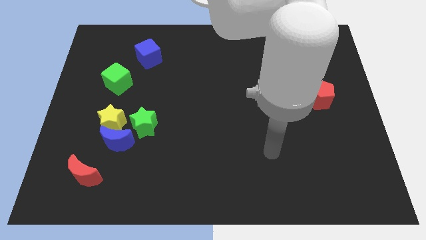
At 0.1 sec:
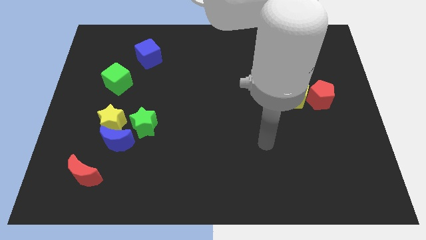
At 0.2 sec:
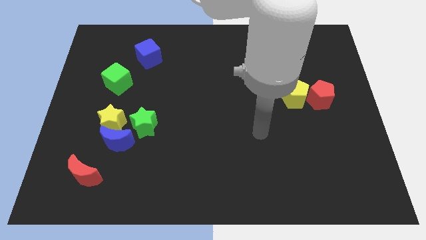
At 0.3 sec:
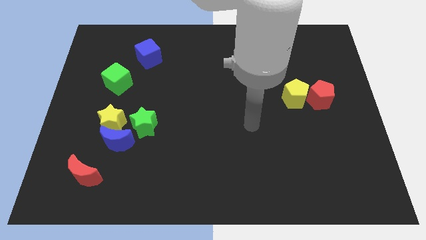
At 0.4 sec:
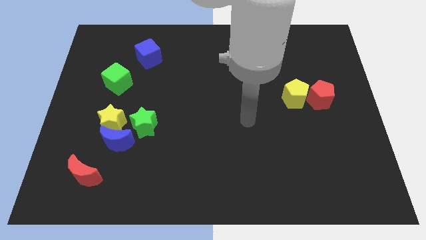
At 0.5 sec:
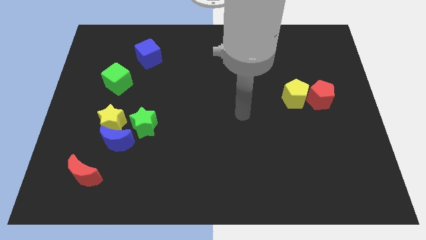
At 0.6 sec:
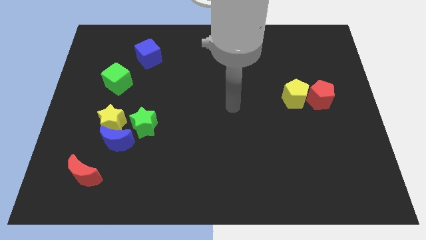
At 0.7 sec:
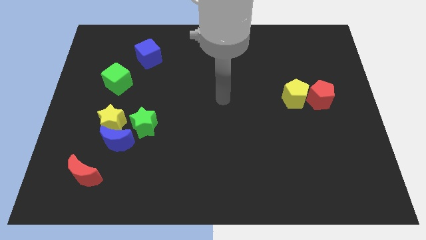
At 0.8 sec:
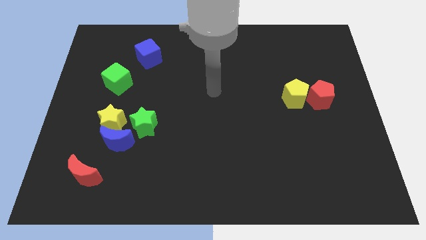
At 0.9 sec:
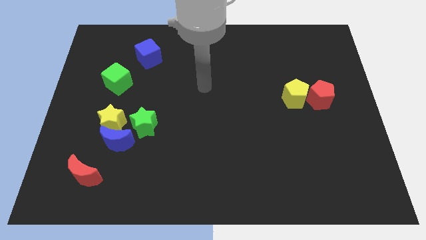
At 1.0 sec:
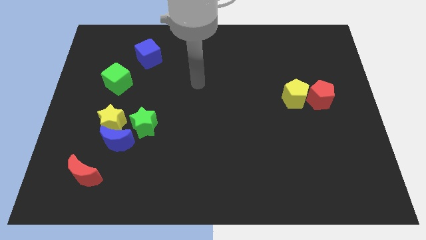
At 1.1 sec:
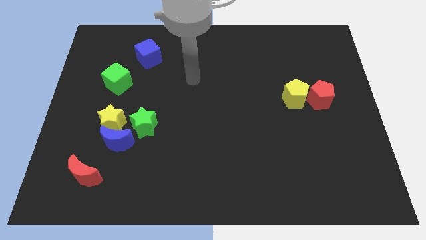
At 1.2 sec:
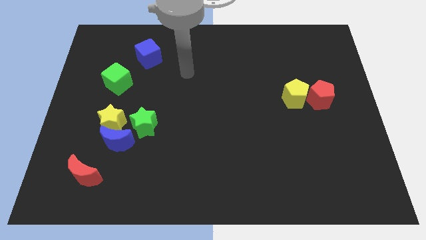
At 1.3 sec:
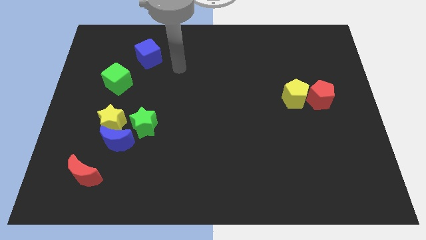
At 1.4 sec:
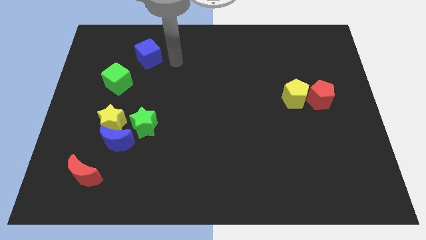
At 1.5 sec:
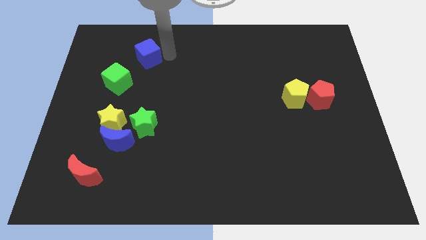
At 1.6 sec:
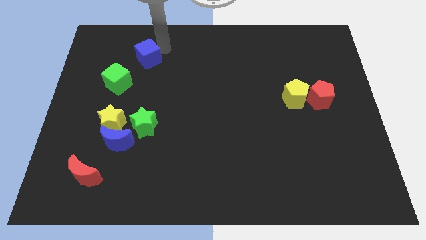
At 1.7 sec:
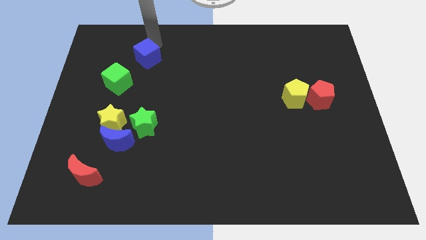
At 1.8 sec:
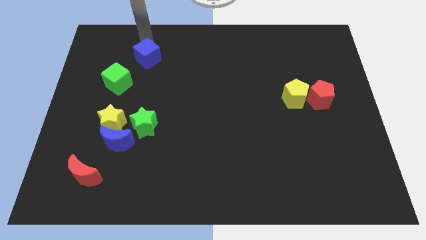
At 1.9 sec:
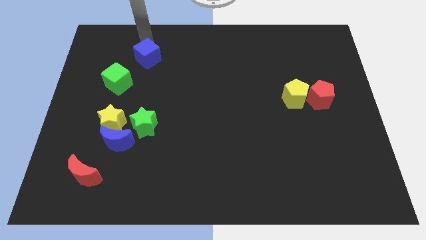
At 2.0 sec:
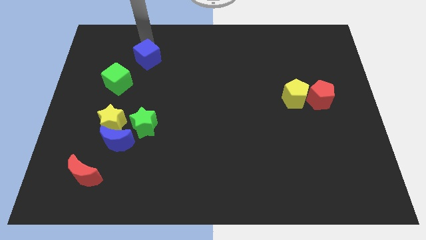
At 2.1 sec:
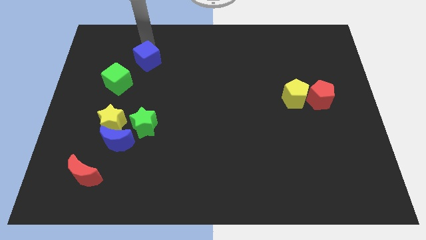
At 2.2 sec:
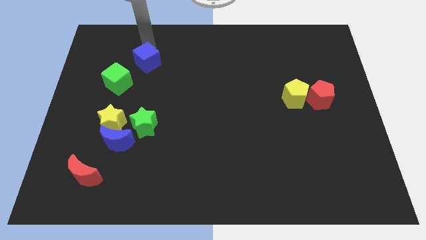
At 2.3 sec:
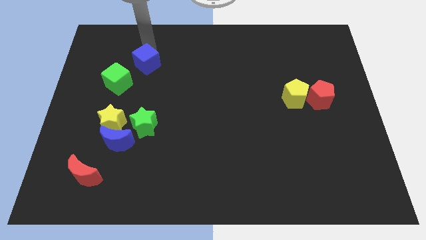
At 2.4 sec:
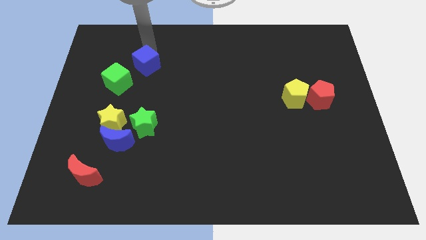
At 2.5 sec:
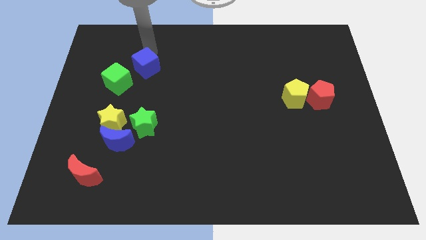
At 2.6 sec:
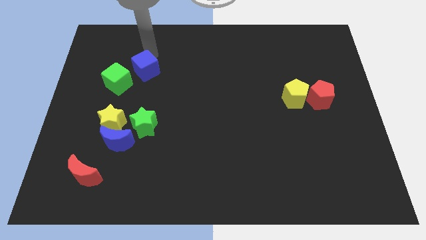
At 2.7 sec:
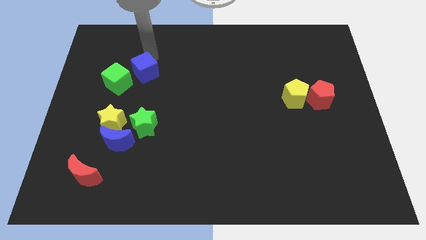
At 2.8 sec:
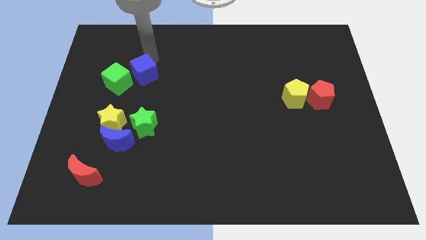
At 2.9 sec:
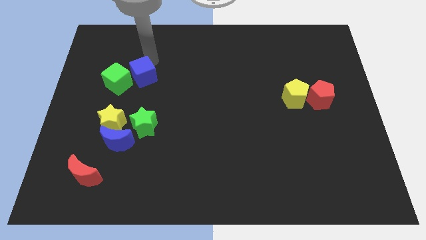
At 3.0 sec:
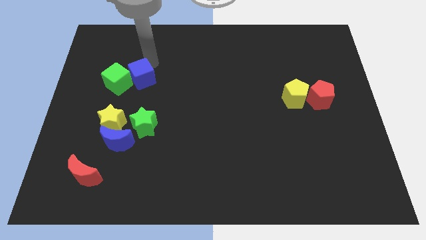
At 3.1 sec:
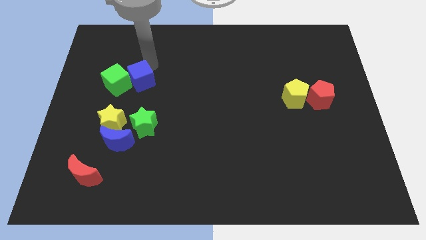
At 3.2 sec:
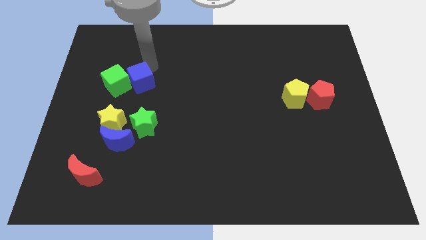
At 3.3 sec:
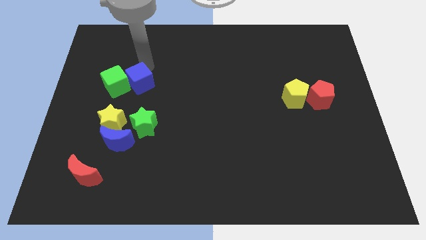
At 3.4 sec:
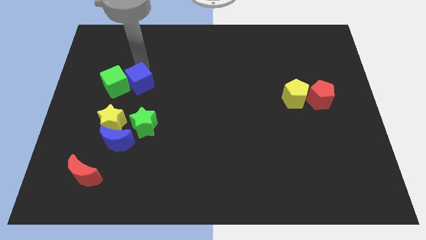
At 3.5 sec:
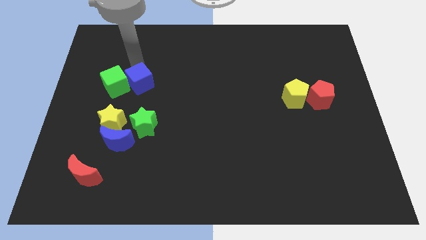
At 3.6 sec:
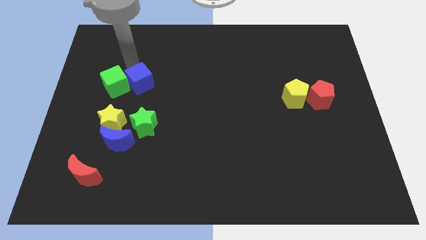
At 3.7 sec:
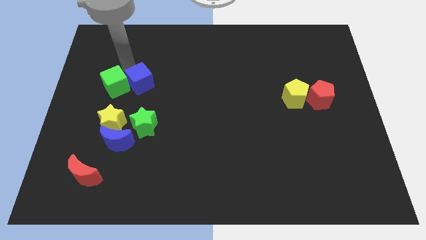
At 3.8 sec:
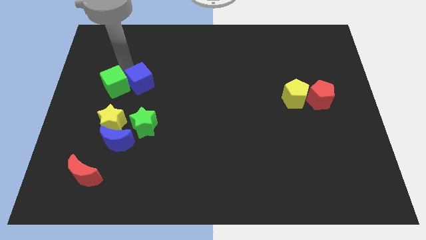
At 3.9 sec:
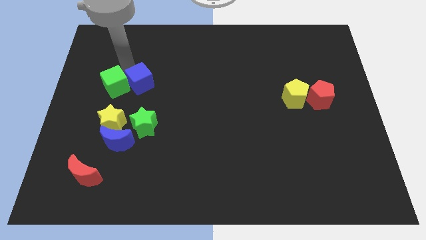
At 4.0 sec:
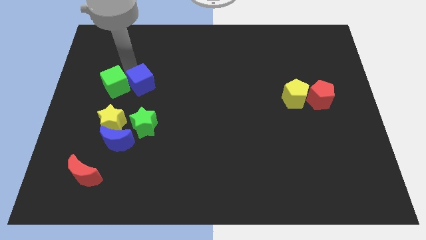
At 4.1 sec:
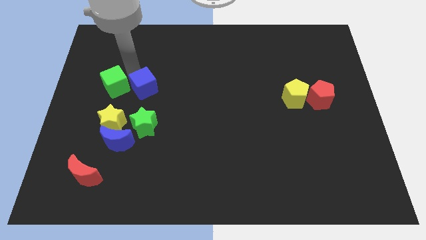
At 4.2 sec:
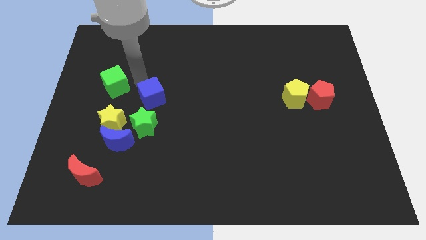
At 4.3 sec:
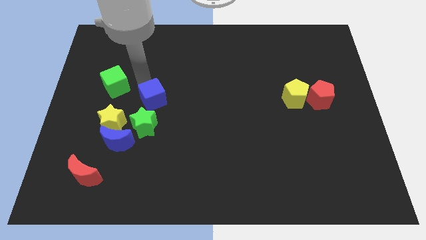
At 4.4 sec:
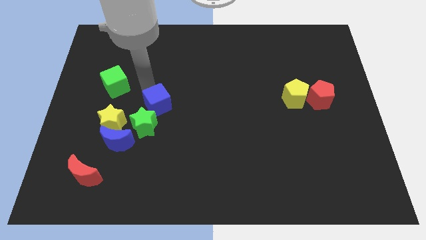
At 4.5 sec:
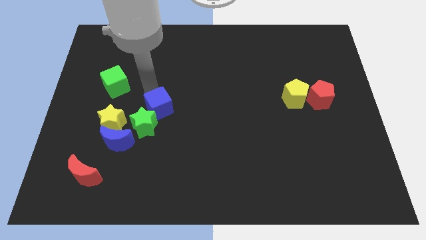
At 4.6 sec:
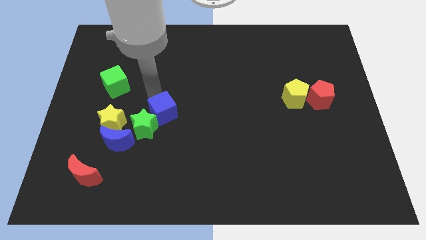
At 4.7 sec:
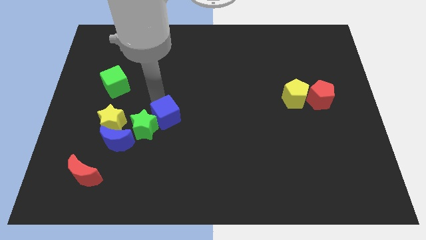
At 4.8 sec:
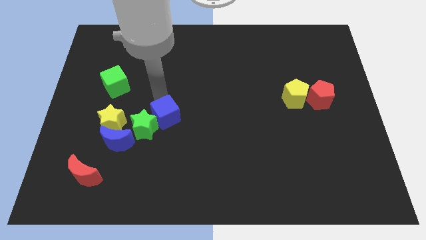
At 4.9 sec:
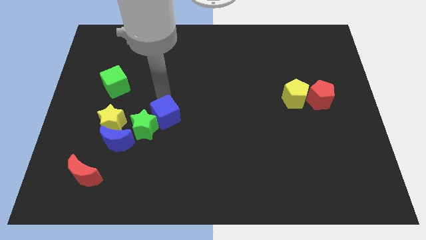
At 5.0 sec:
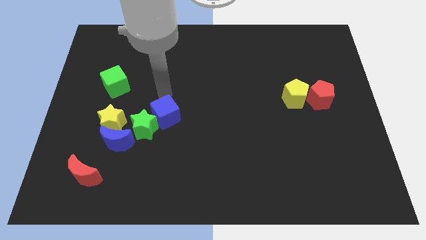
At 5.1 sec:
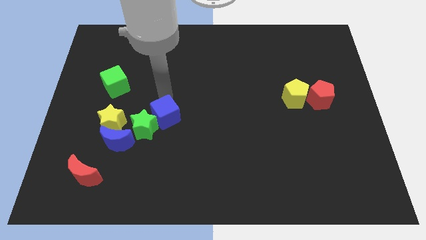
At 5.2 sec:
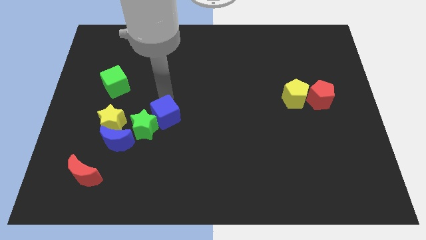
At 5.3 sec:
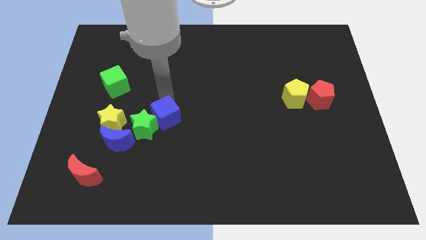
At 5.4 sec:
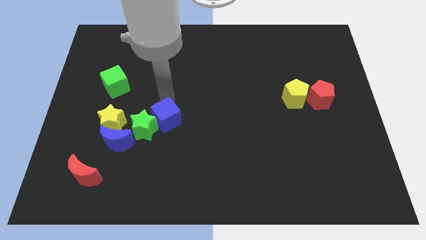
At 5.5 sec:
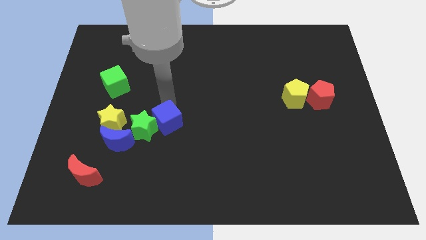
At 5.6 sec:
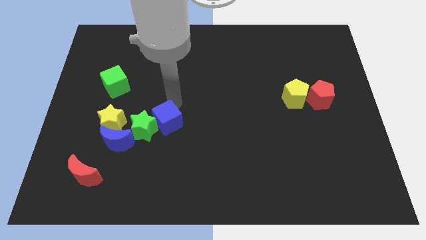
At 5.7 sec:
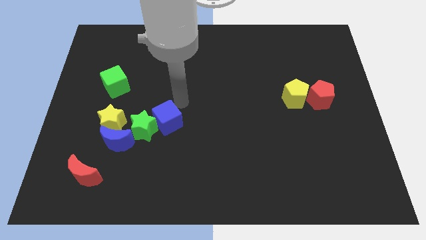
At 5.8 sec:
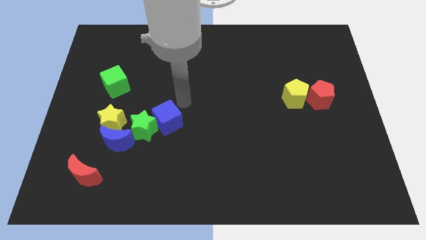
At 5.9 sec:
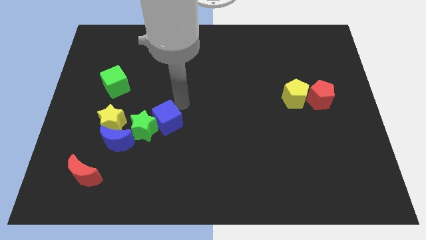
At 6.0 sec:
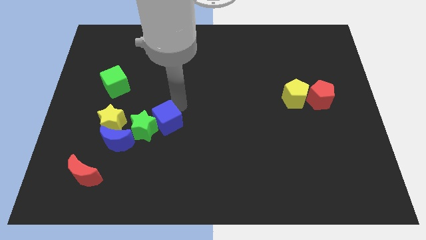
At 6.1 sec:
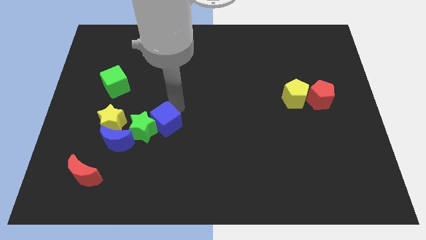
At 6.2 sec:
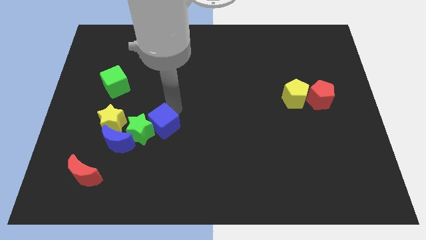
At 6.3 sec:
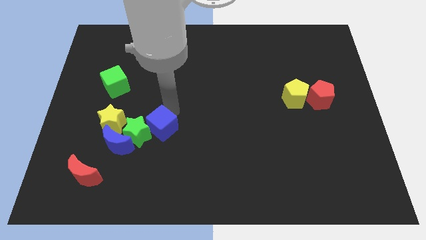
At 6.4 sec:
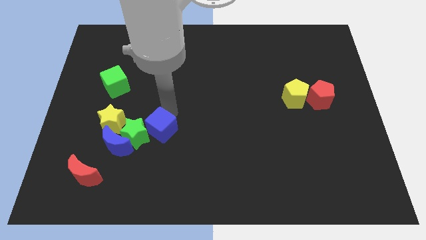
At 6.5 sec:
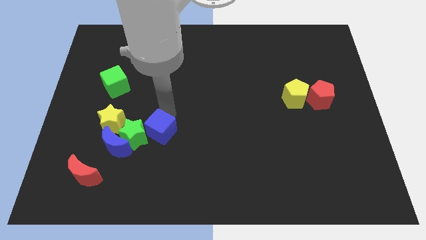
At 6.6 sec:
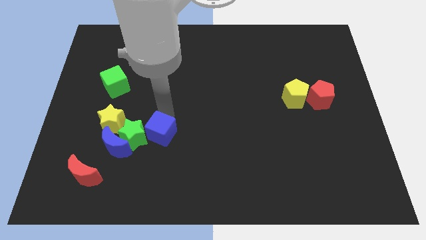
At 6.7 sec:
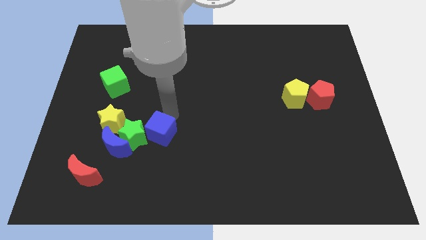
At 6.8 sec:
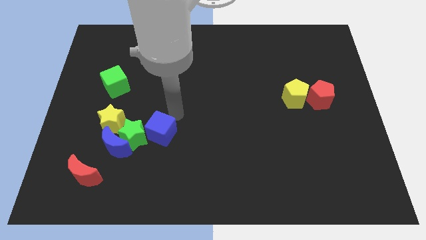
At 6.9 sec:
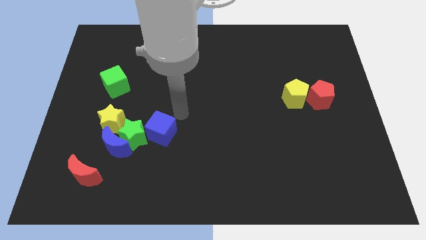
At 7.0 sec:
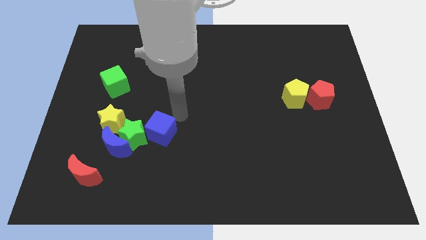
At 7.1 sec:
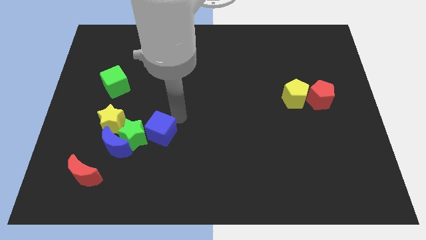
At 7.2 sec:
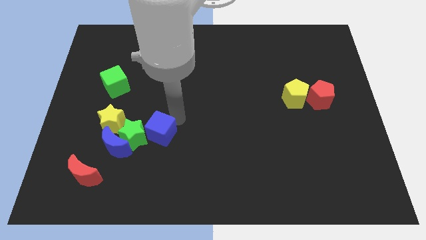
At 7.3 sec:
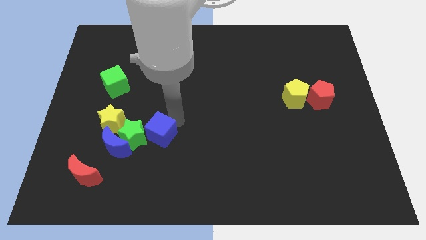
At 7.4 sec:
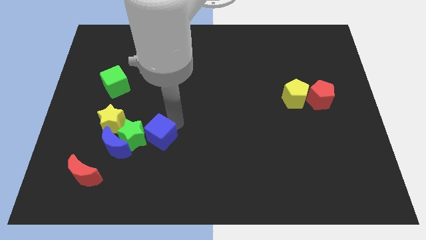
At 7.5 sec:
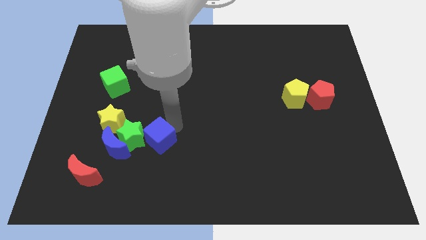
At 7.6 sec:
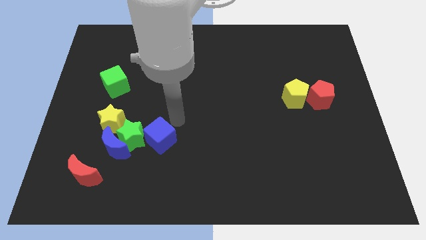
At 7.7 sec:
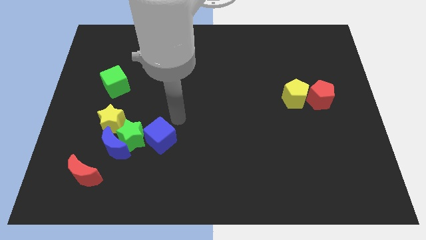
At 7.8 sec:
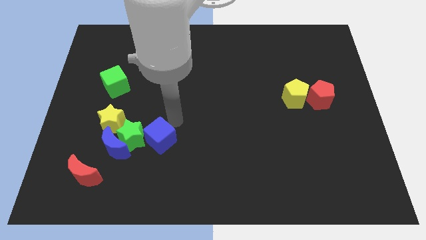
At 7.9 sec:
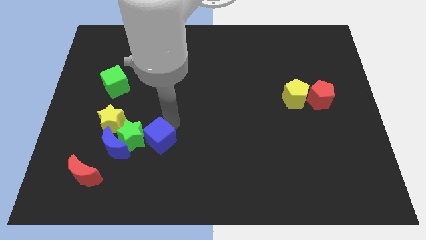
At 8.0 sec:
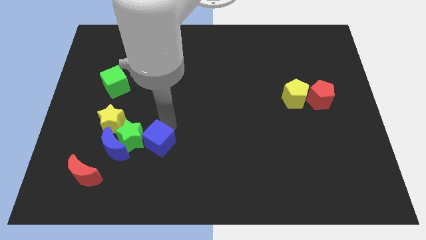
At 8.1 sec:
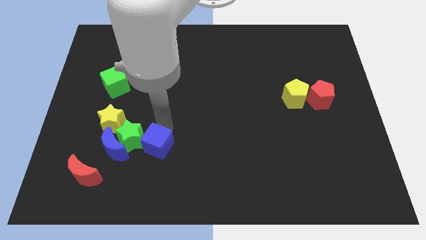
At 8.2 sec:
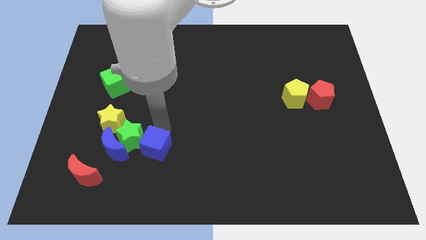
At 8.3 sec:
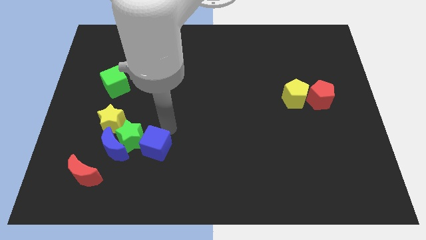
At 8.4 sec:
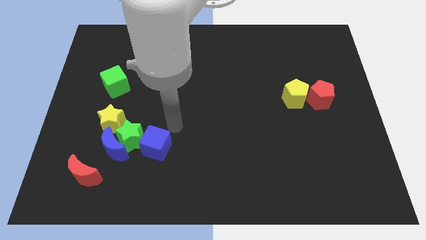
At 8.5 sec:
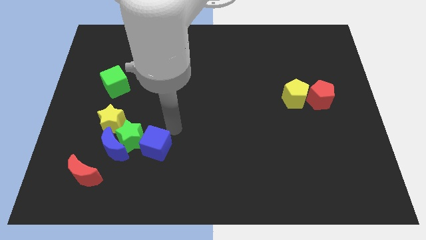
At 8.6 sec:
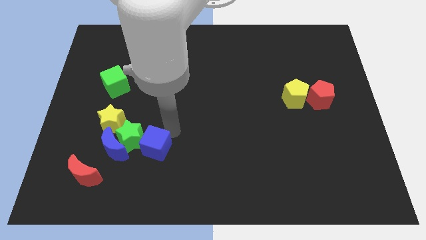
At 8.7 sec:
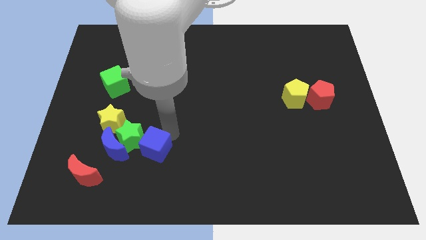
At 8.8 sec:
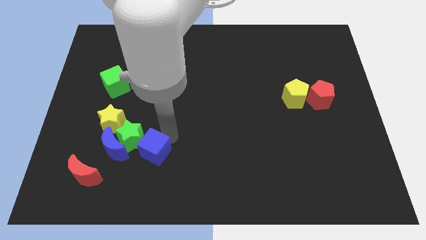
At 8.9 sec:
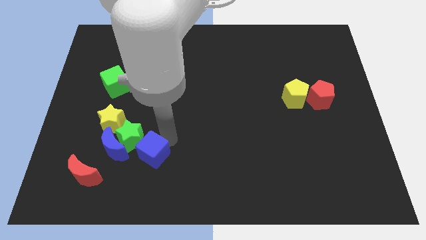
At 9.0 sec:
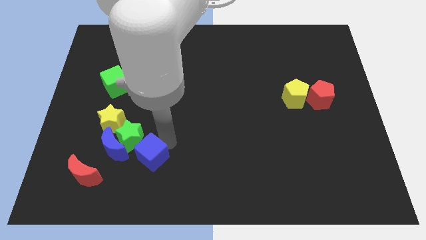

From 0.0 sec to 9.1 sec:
push the blue cube to the bottom right side of the blue moon
